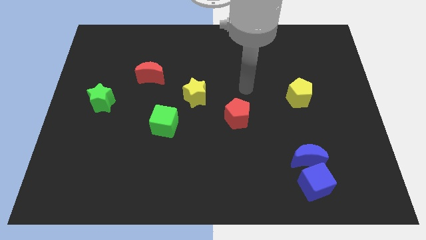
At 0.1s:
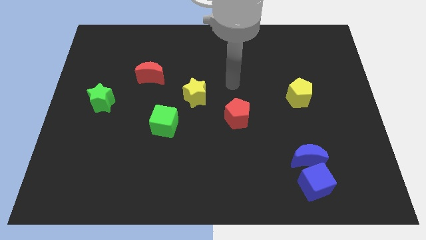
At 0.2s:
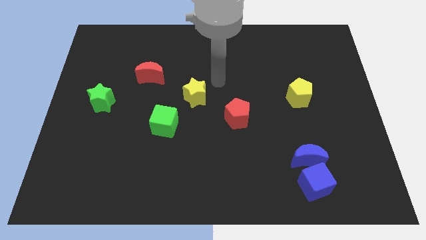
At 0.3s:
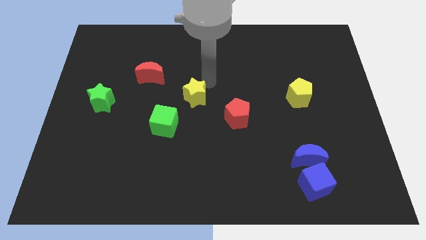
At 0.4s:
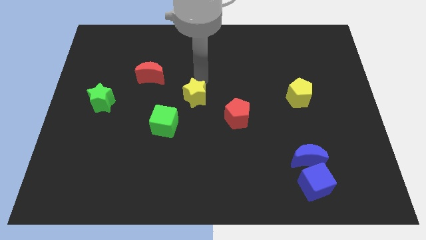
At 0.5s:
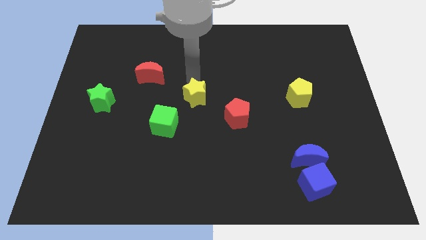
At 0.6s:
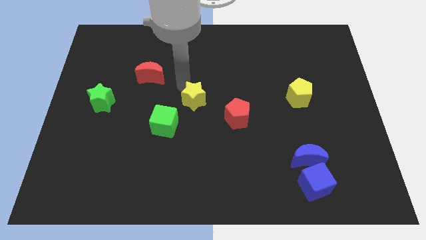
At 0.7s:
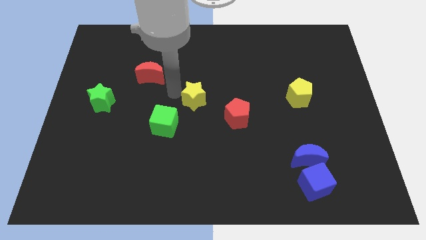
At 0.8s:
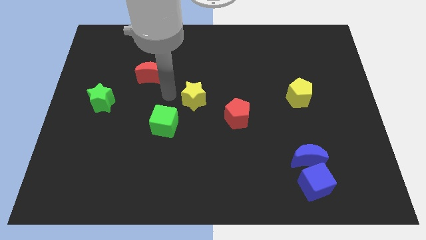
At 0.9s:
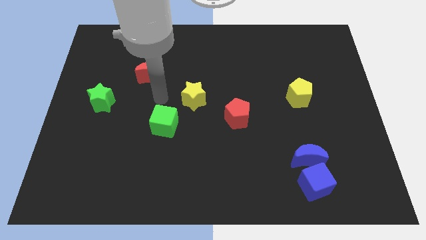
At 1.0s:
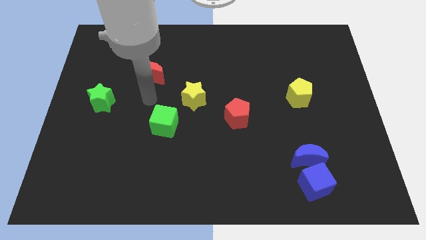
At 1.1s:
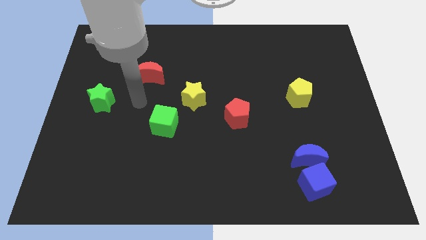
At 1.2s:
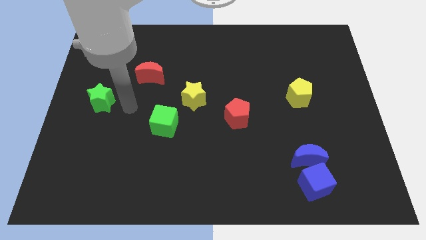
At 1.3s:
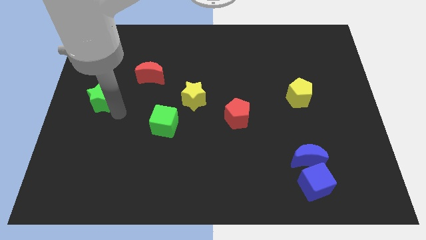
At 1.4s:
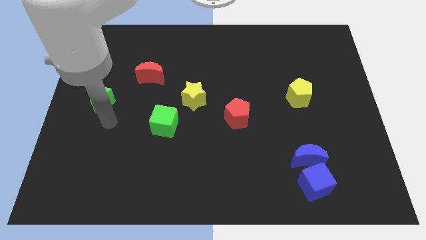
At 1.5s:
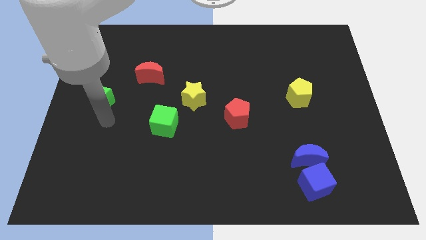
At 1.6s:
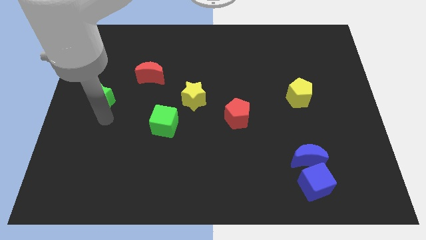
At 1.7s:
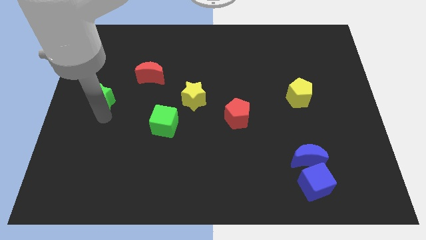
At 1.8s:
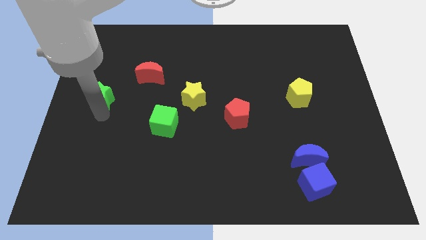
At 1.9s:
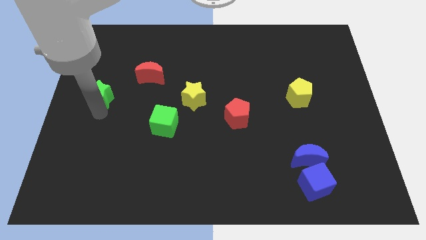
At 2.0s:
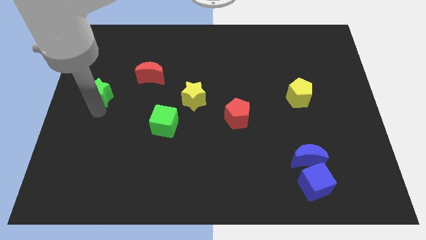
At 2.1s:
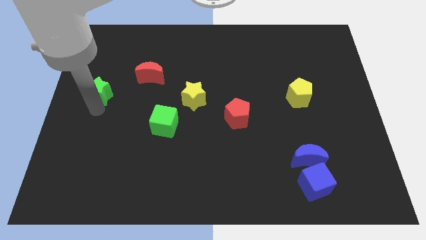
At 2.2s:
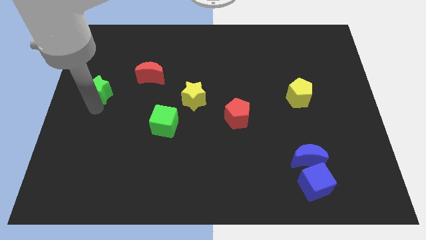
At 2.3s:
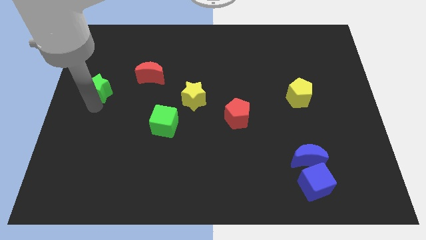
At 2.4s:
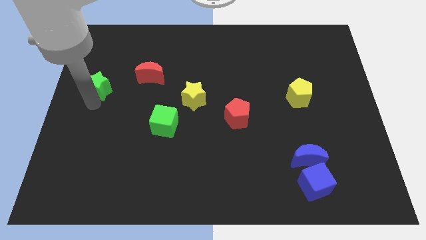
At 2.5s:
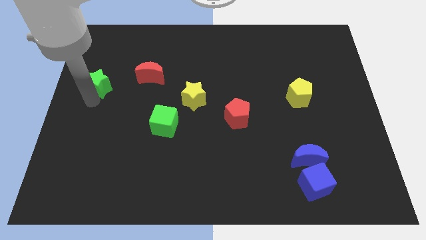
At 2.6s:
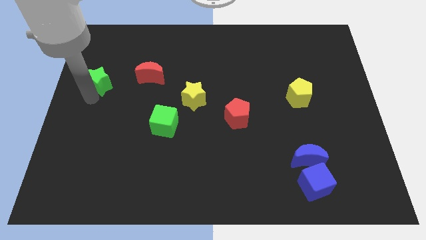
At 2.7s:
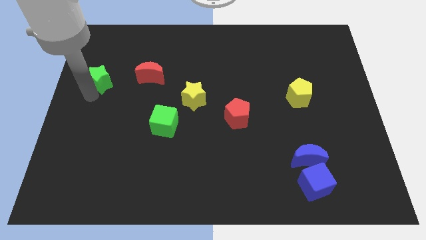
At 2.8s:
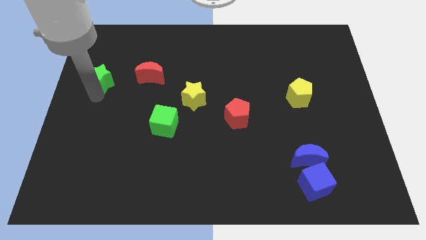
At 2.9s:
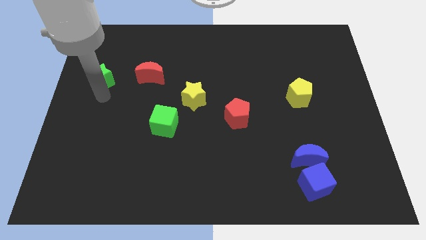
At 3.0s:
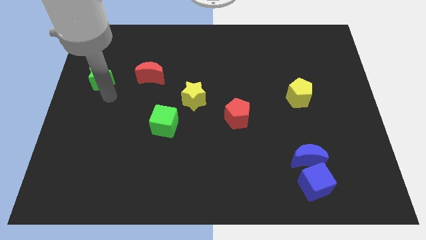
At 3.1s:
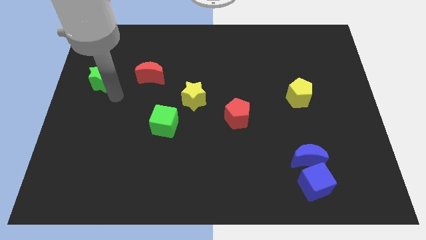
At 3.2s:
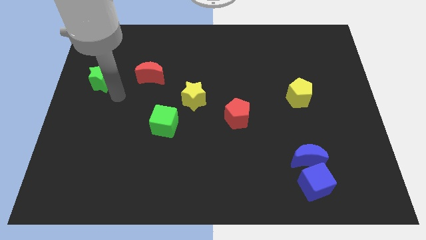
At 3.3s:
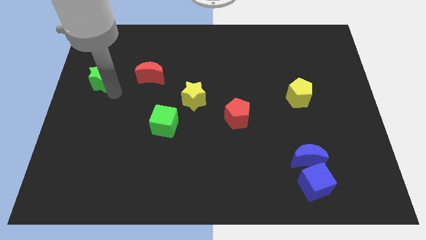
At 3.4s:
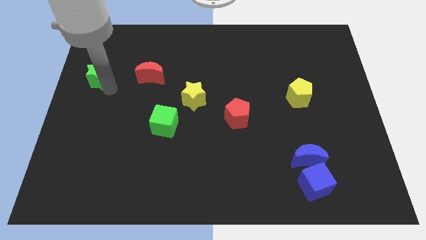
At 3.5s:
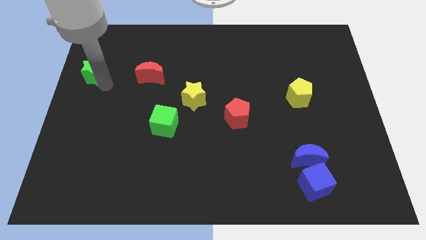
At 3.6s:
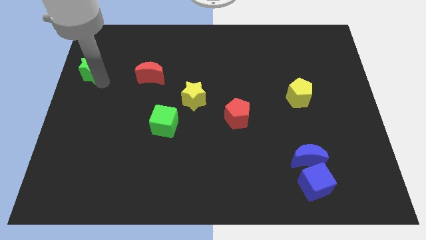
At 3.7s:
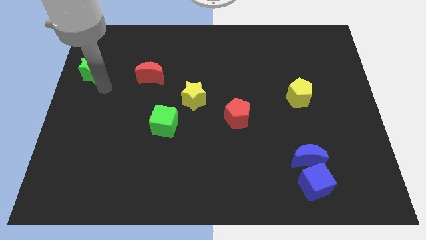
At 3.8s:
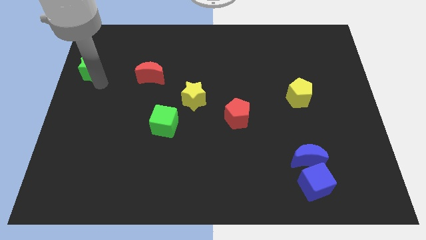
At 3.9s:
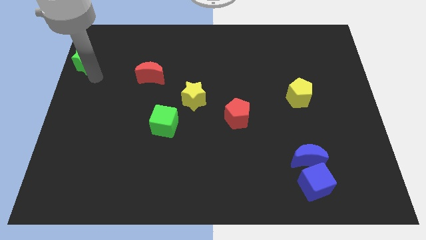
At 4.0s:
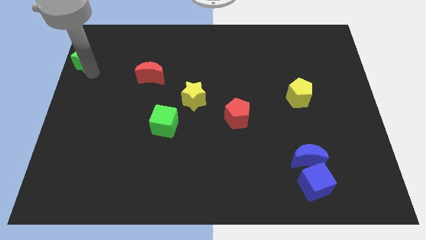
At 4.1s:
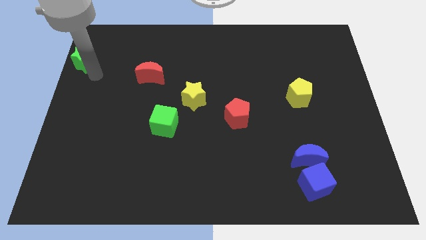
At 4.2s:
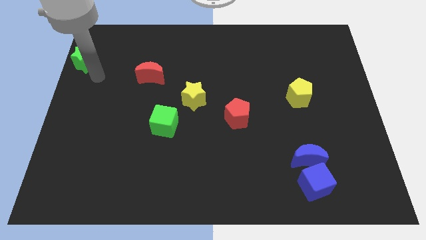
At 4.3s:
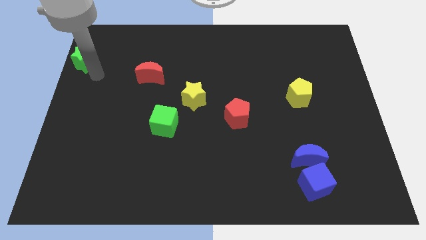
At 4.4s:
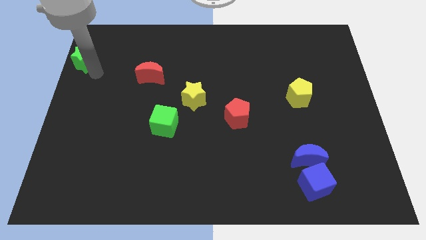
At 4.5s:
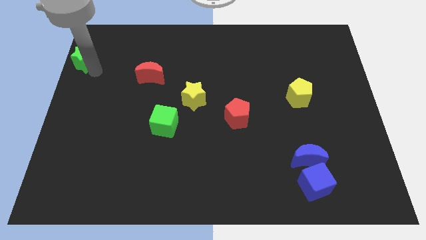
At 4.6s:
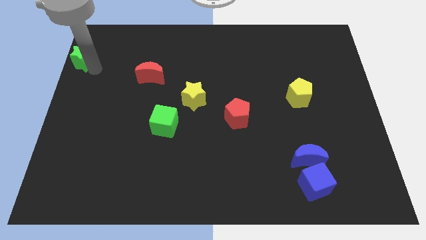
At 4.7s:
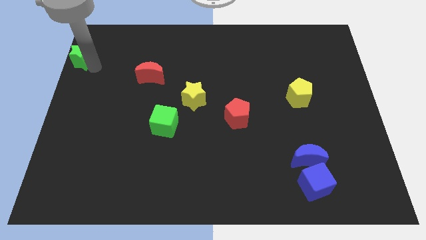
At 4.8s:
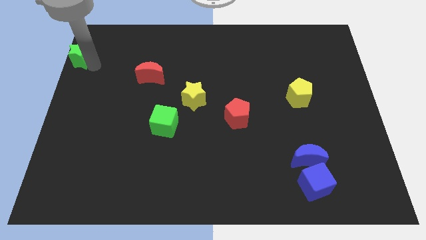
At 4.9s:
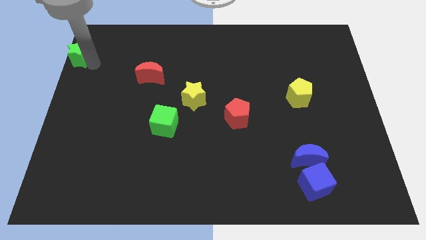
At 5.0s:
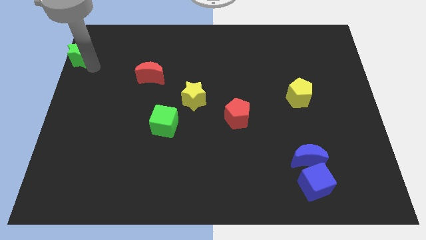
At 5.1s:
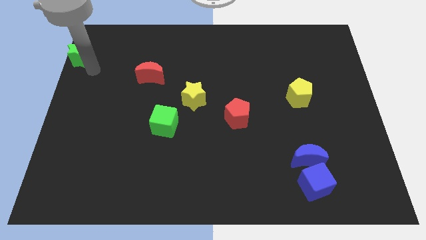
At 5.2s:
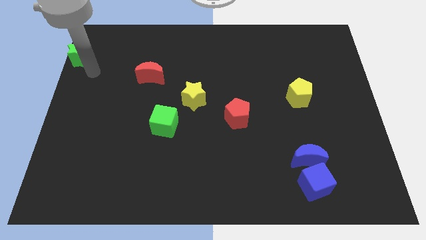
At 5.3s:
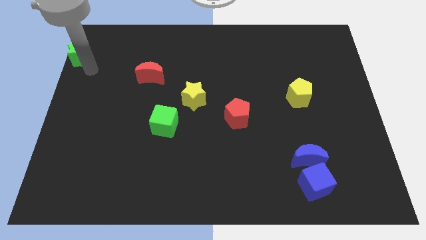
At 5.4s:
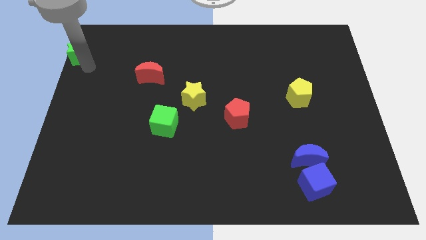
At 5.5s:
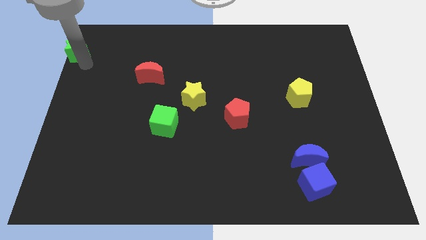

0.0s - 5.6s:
slide the green star to the top left of the board

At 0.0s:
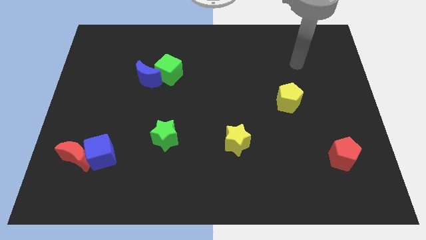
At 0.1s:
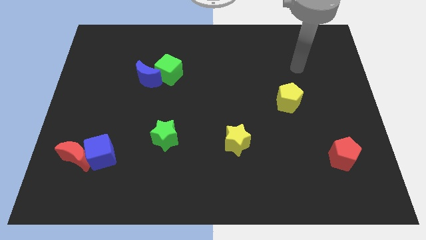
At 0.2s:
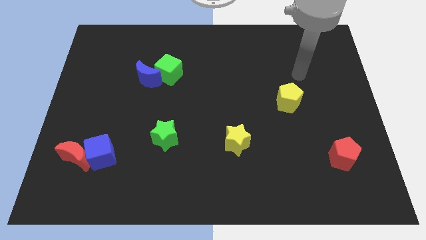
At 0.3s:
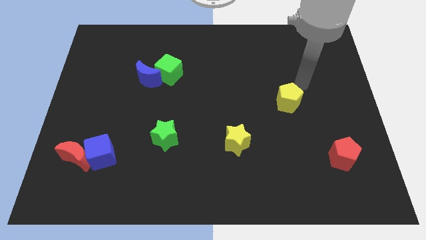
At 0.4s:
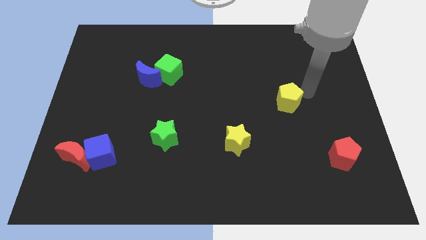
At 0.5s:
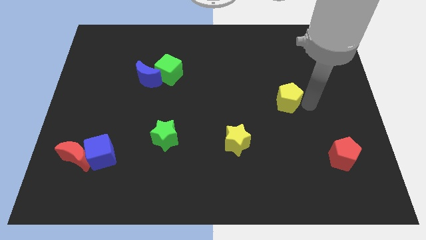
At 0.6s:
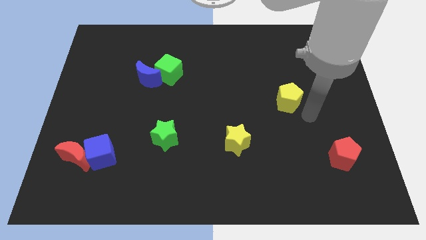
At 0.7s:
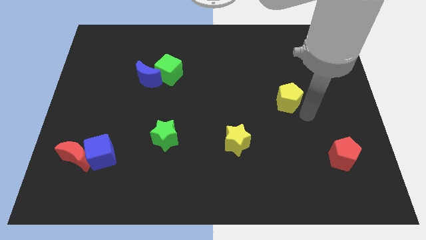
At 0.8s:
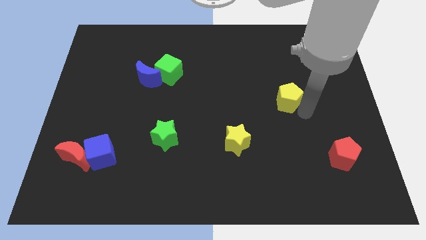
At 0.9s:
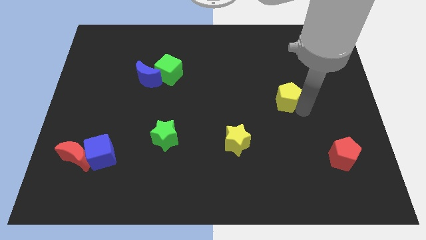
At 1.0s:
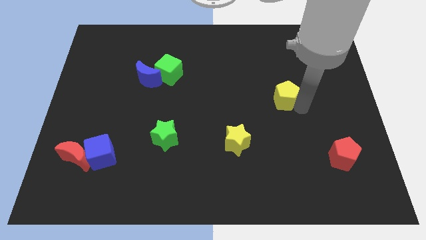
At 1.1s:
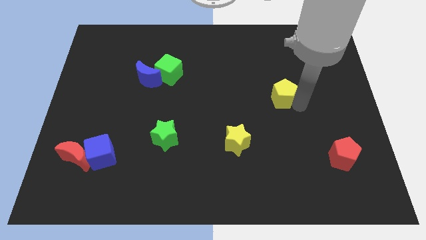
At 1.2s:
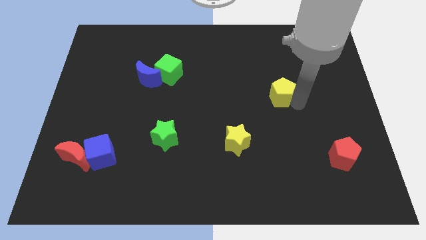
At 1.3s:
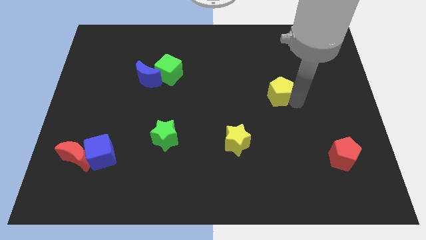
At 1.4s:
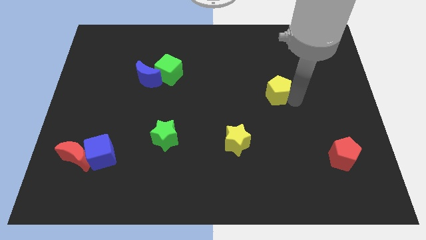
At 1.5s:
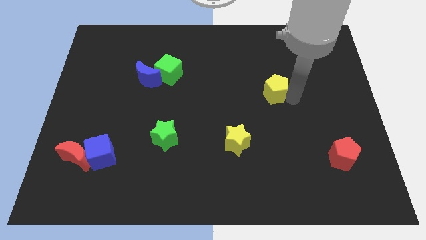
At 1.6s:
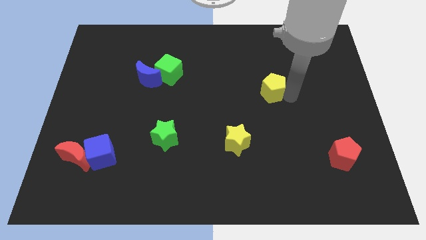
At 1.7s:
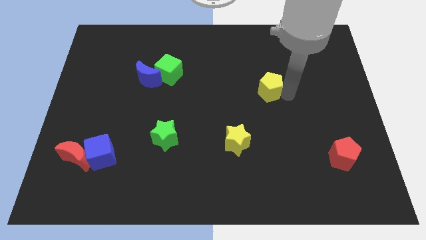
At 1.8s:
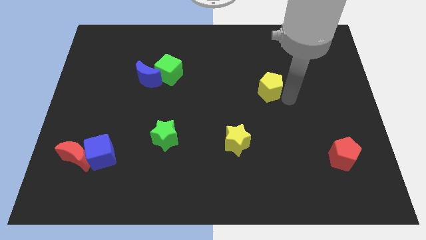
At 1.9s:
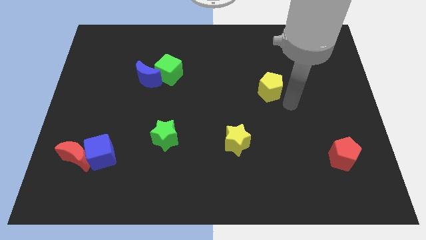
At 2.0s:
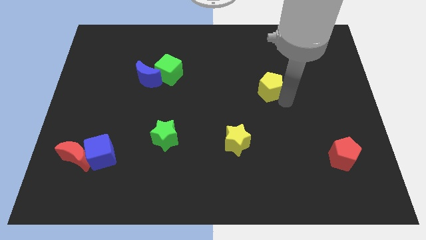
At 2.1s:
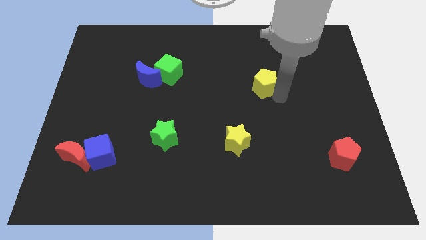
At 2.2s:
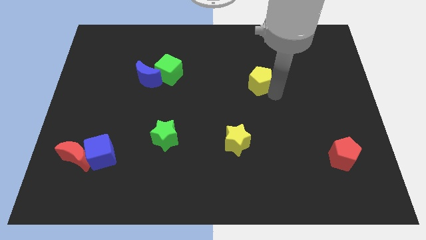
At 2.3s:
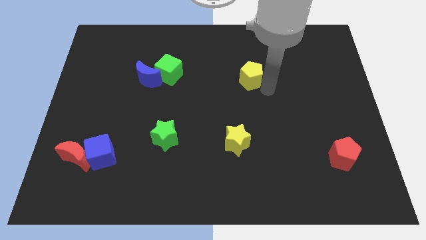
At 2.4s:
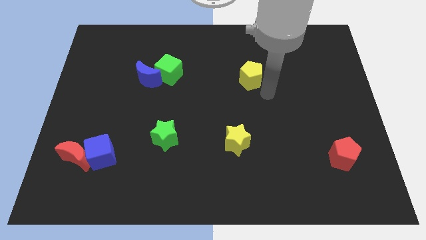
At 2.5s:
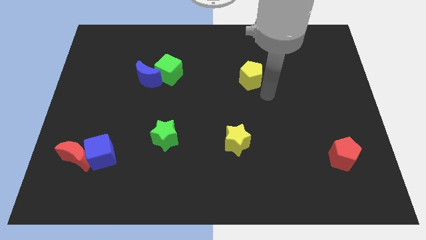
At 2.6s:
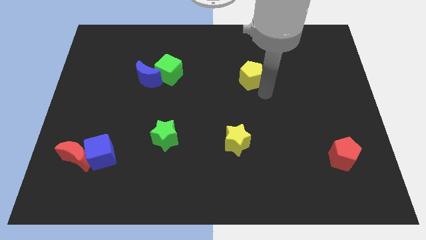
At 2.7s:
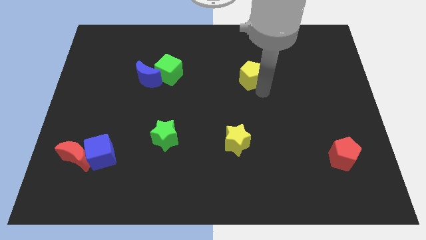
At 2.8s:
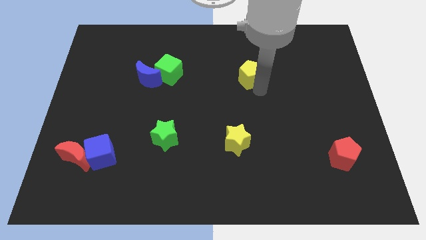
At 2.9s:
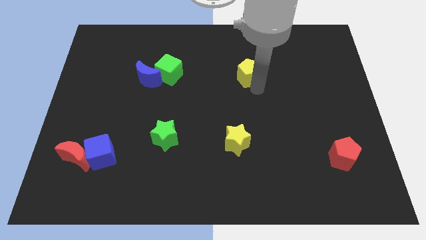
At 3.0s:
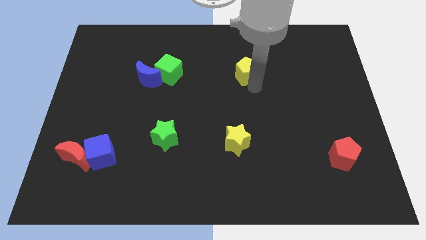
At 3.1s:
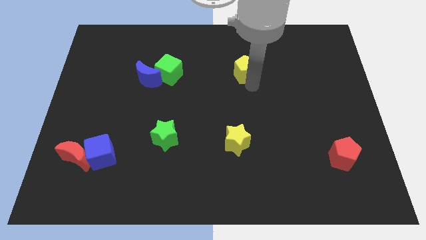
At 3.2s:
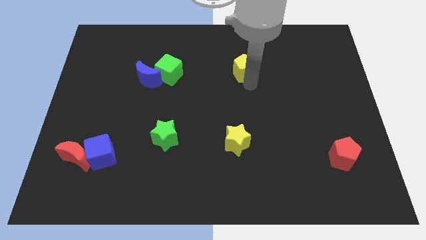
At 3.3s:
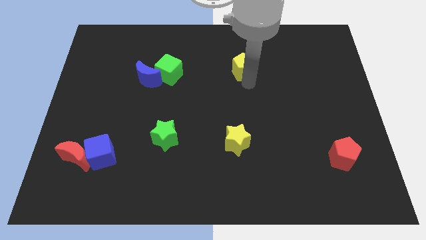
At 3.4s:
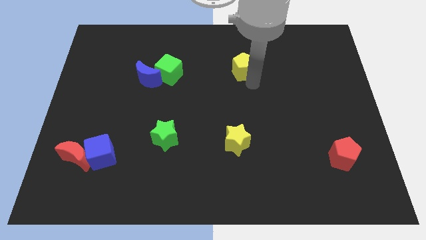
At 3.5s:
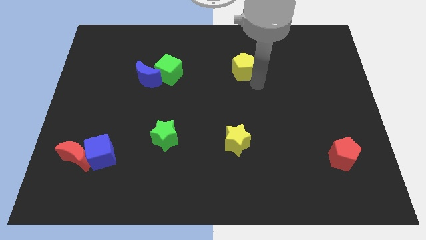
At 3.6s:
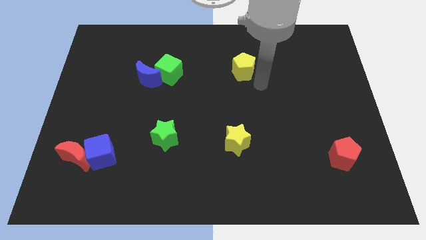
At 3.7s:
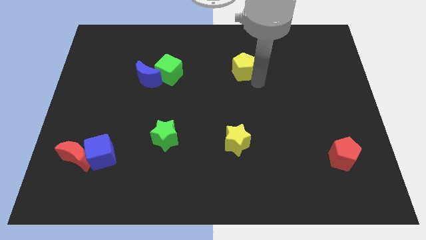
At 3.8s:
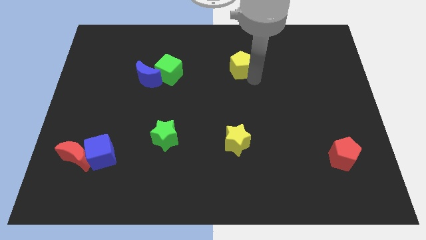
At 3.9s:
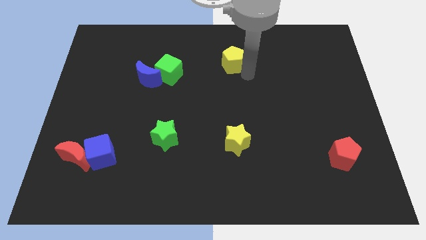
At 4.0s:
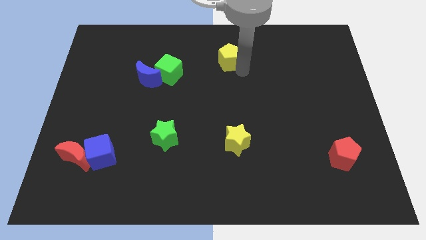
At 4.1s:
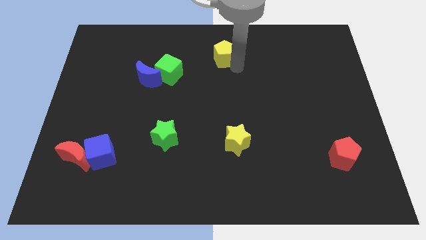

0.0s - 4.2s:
slide the yellow pentagon to the top side
